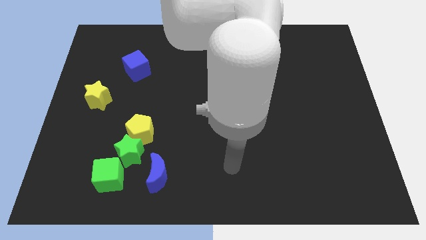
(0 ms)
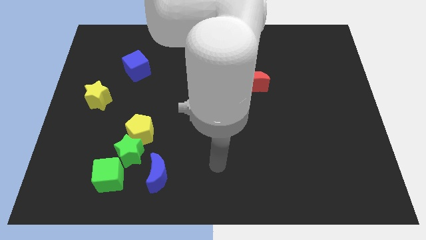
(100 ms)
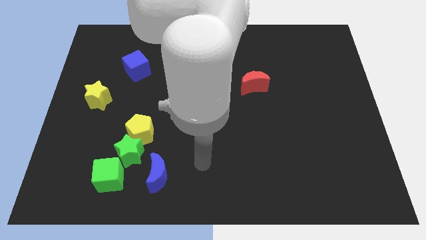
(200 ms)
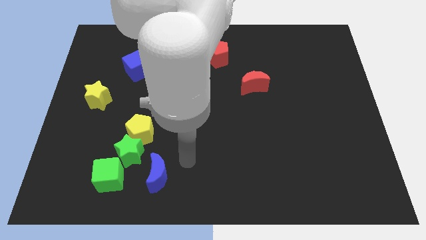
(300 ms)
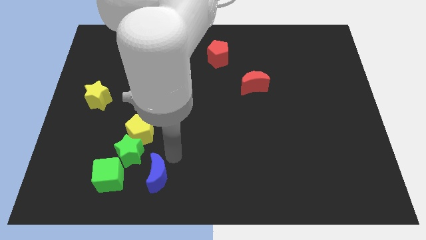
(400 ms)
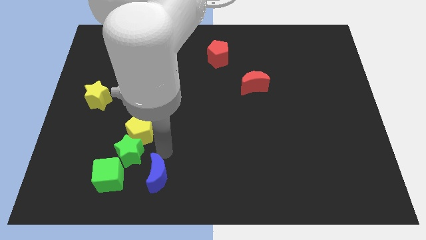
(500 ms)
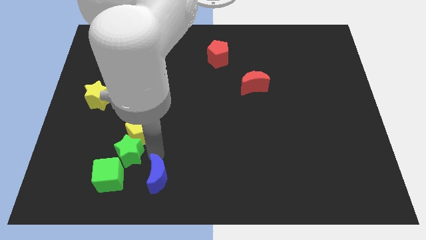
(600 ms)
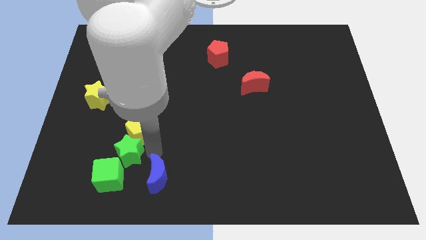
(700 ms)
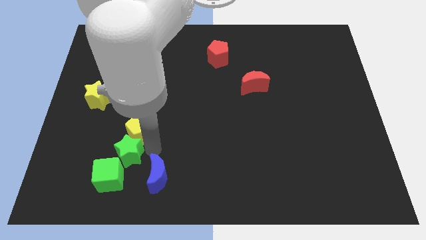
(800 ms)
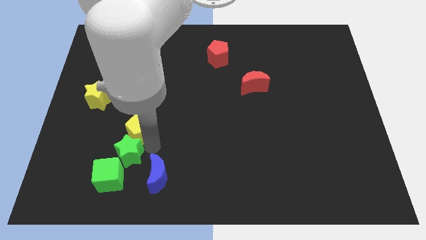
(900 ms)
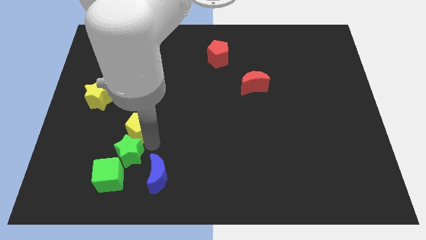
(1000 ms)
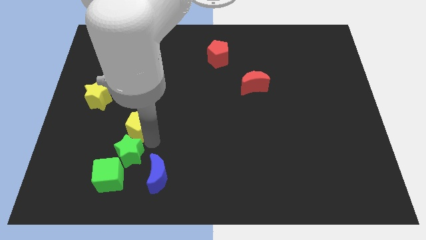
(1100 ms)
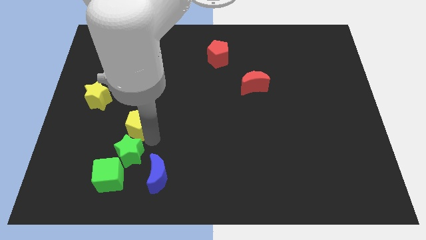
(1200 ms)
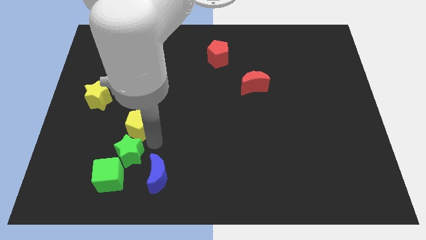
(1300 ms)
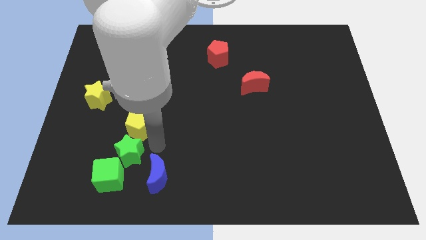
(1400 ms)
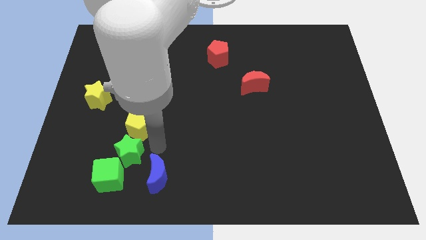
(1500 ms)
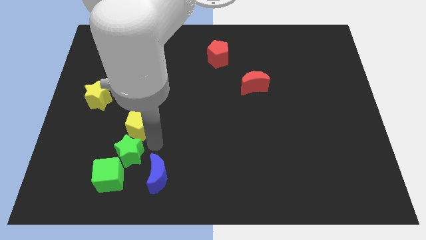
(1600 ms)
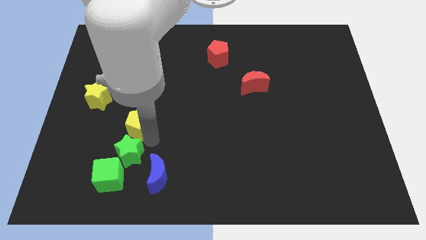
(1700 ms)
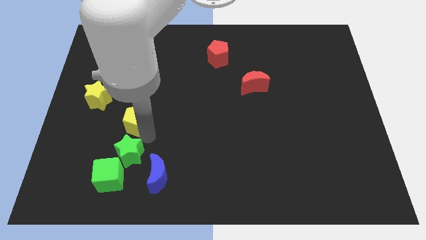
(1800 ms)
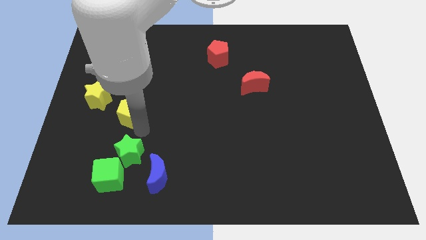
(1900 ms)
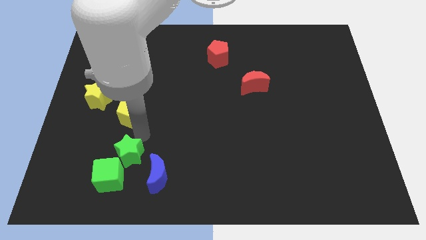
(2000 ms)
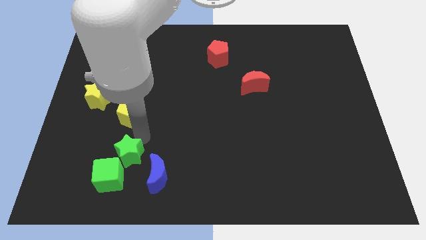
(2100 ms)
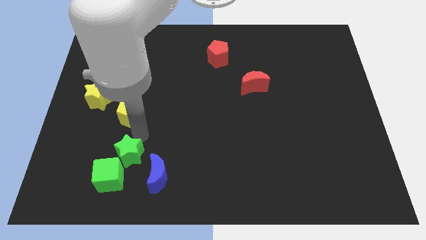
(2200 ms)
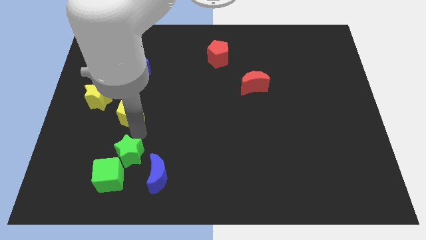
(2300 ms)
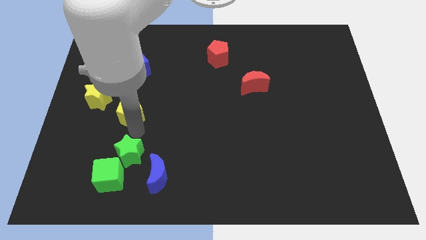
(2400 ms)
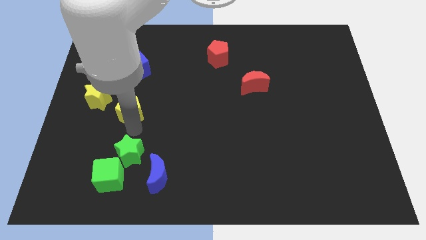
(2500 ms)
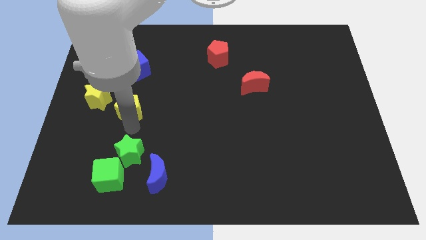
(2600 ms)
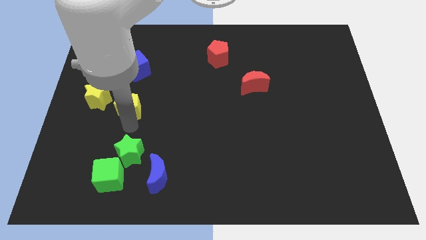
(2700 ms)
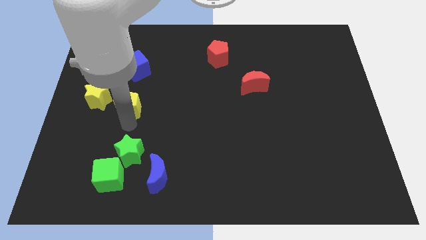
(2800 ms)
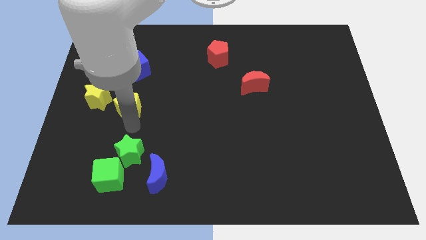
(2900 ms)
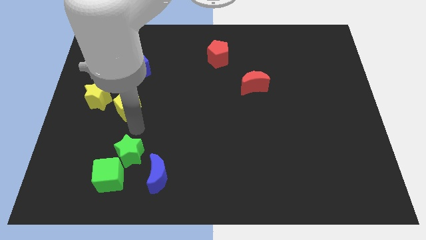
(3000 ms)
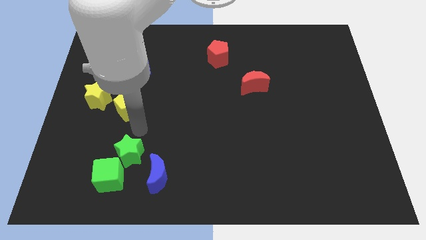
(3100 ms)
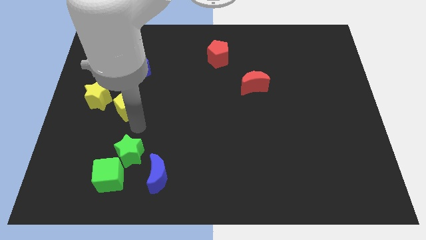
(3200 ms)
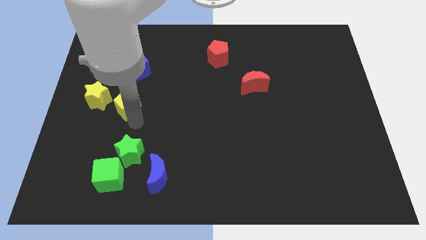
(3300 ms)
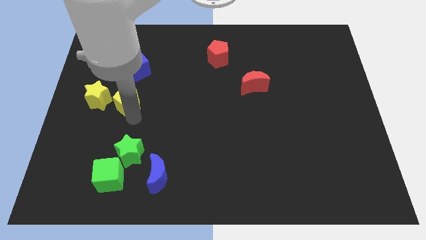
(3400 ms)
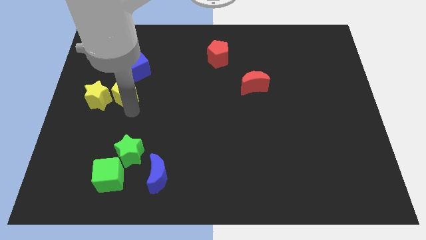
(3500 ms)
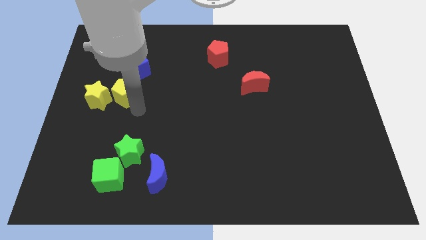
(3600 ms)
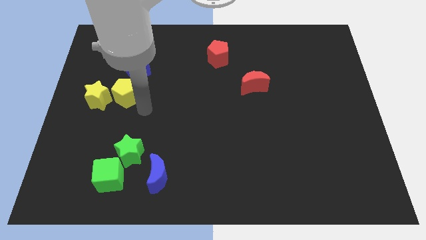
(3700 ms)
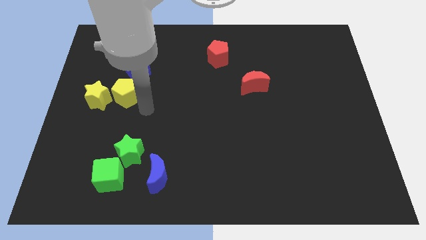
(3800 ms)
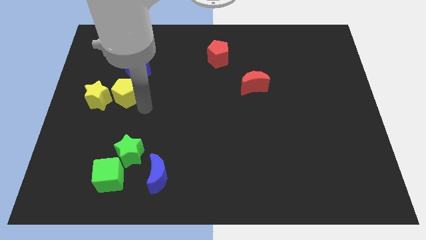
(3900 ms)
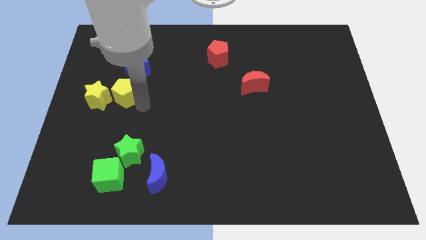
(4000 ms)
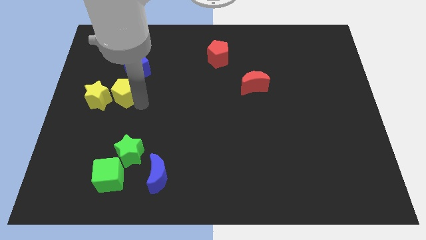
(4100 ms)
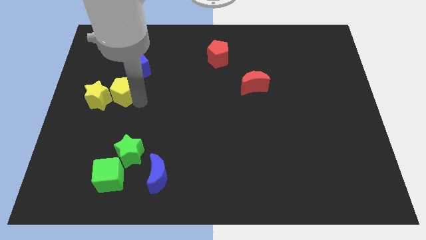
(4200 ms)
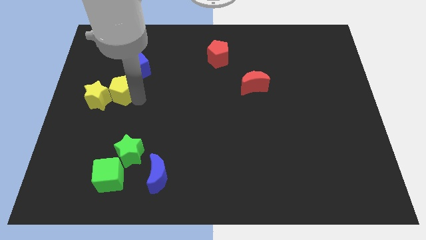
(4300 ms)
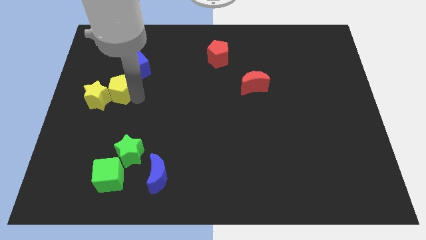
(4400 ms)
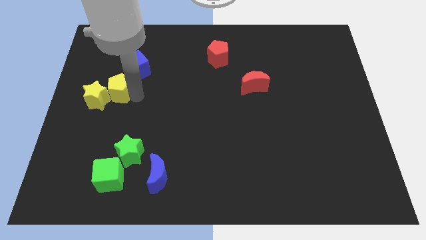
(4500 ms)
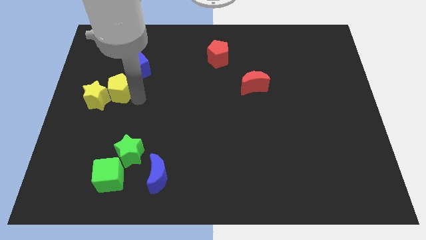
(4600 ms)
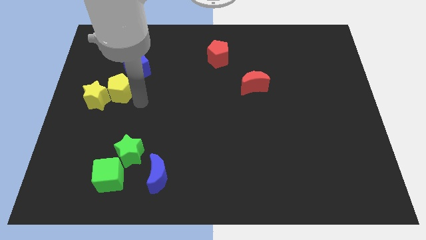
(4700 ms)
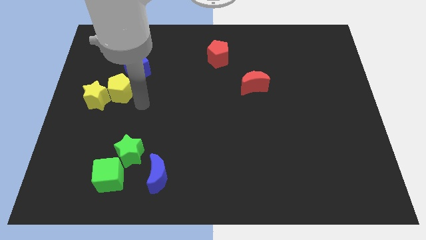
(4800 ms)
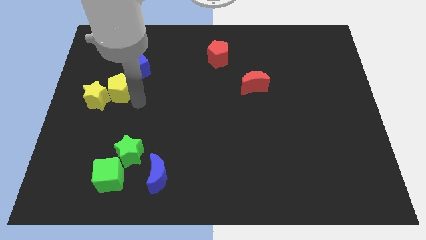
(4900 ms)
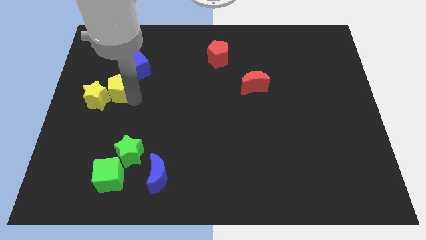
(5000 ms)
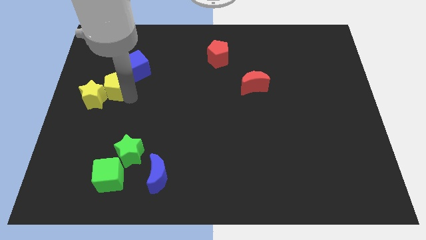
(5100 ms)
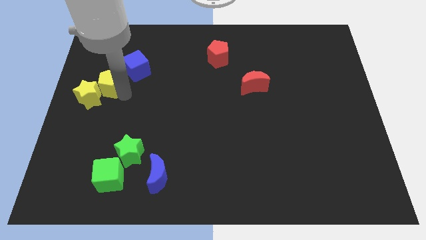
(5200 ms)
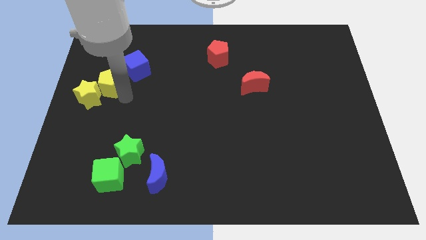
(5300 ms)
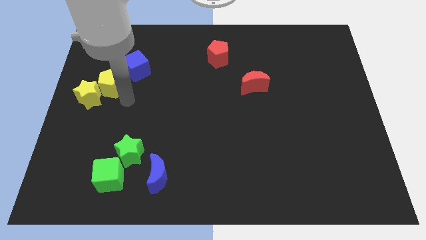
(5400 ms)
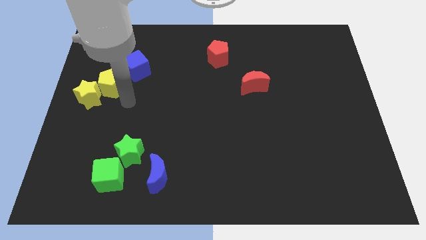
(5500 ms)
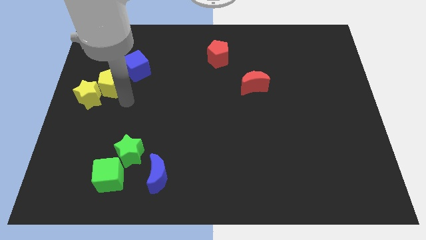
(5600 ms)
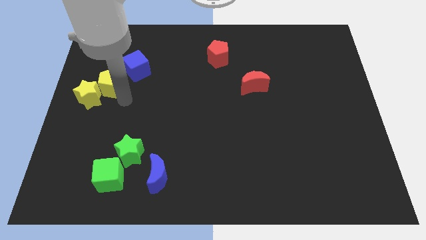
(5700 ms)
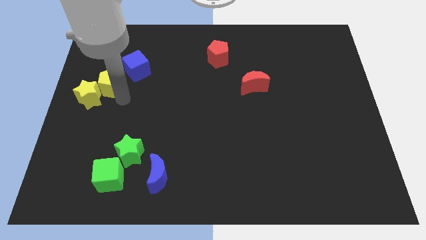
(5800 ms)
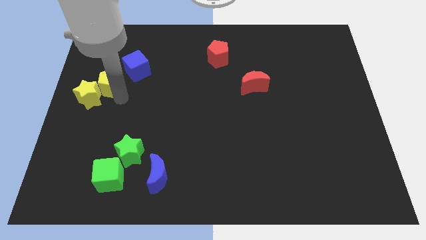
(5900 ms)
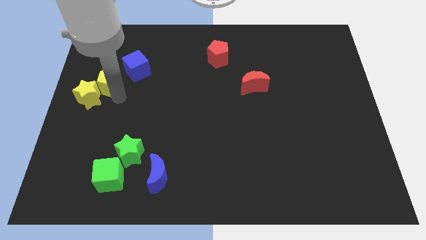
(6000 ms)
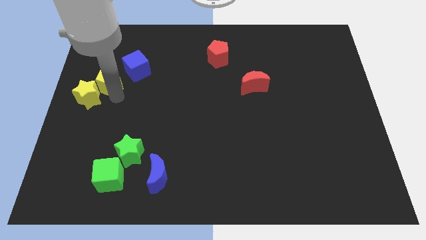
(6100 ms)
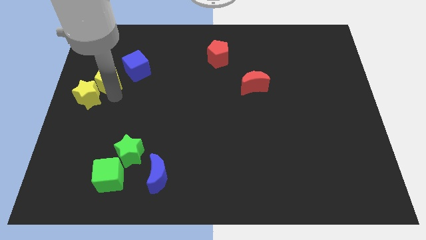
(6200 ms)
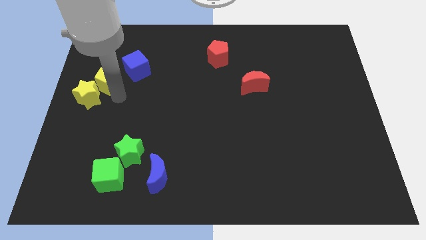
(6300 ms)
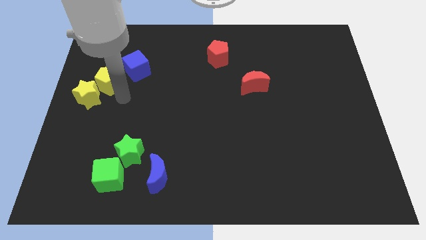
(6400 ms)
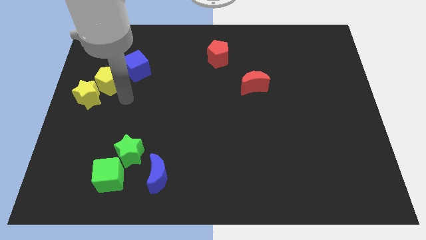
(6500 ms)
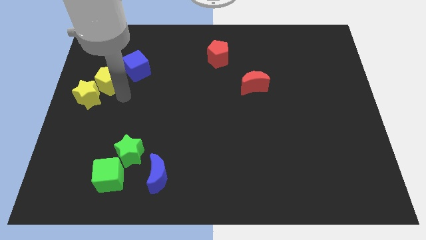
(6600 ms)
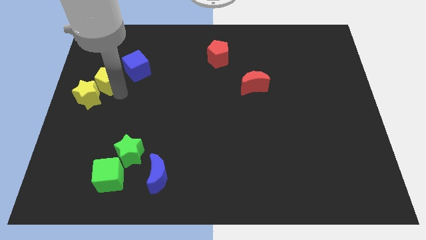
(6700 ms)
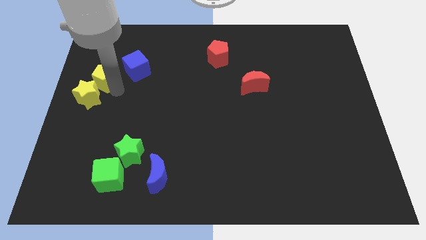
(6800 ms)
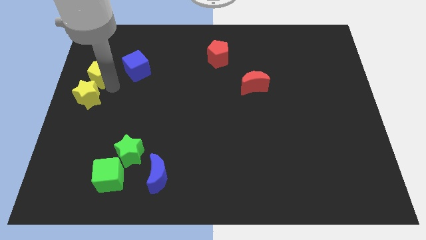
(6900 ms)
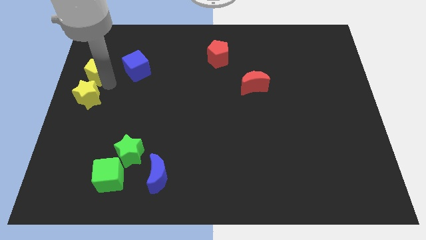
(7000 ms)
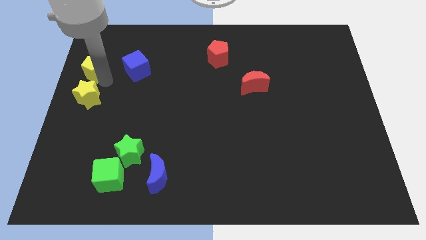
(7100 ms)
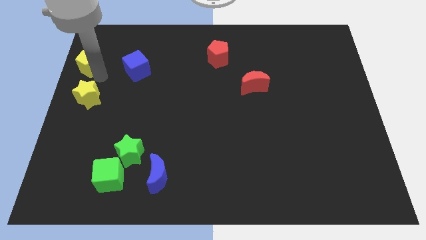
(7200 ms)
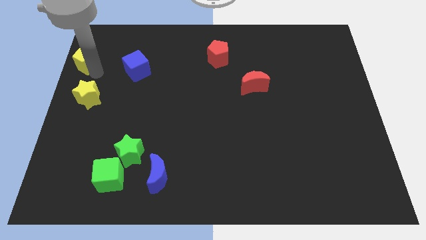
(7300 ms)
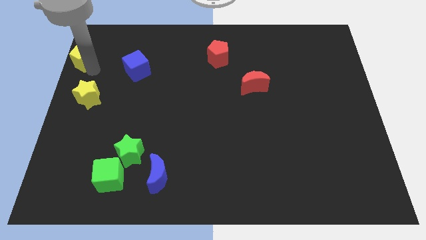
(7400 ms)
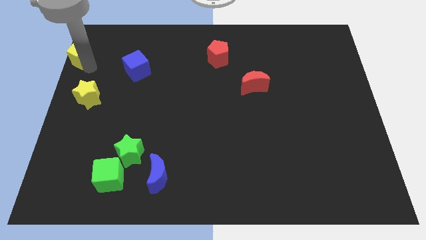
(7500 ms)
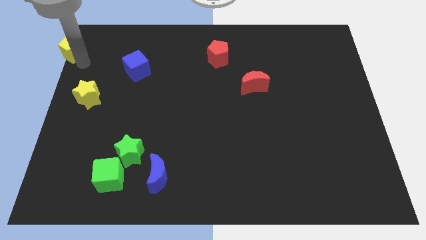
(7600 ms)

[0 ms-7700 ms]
push the yellow pentagon to the top left

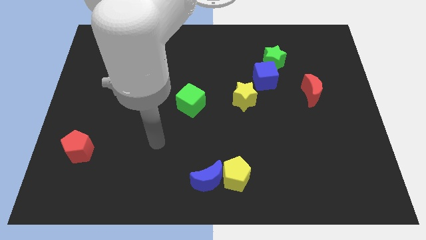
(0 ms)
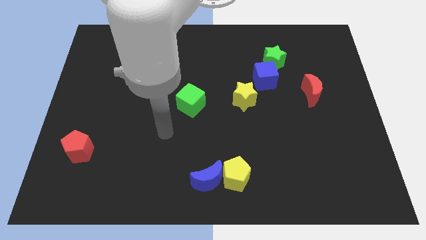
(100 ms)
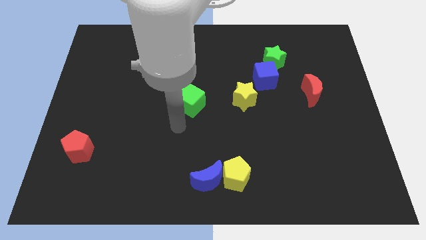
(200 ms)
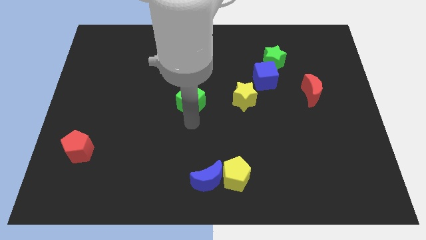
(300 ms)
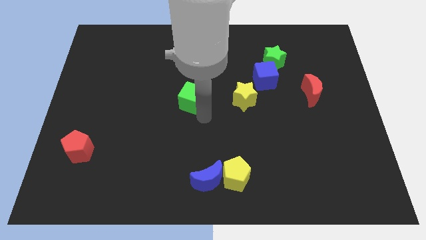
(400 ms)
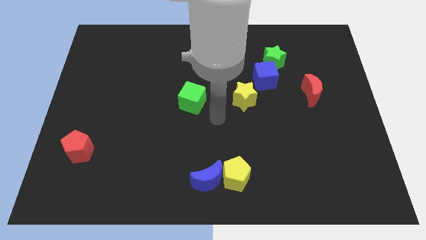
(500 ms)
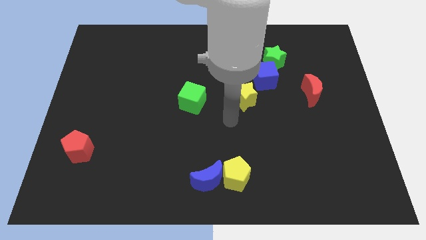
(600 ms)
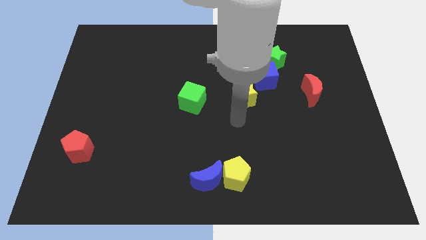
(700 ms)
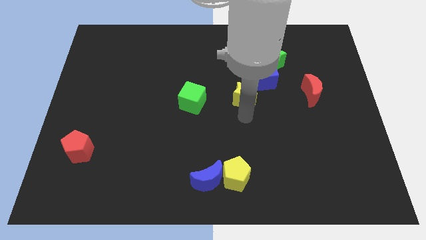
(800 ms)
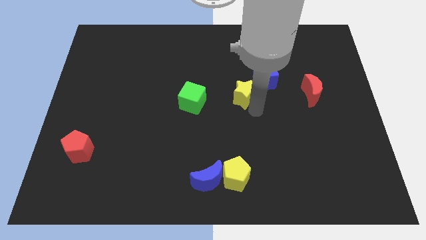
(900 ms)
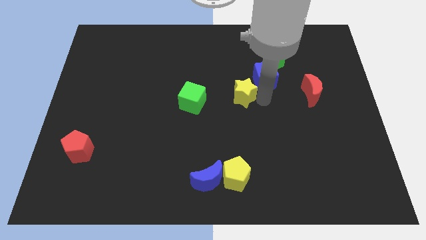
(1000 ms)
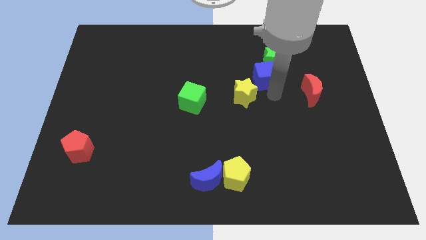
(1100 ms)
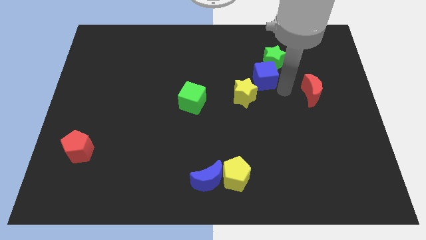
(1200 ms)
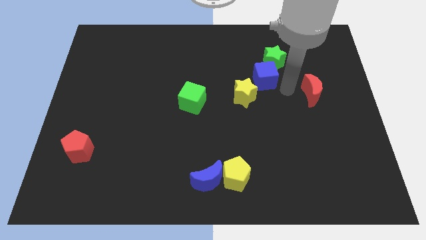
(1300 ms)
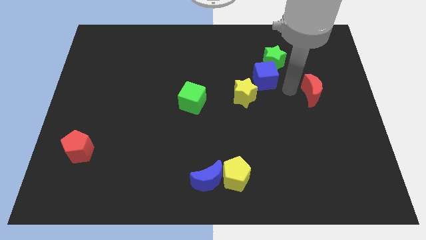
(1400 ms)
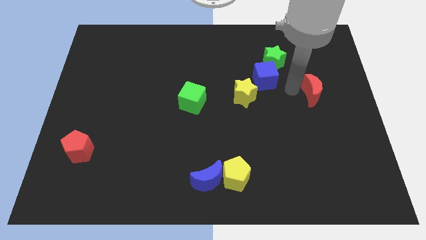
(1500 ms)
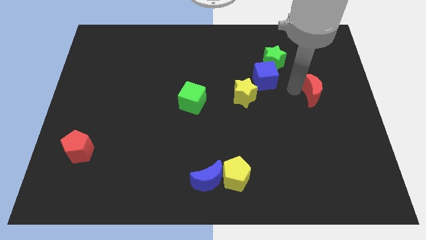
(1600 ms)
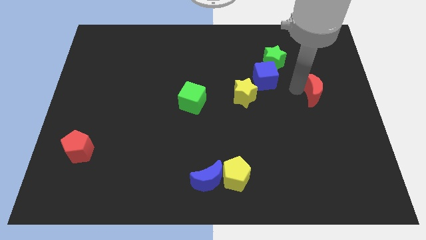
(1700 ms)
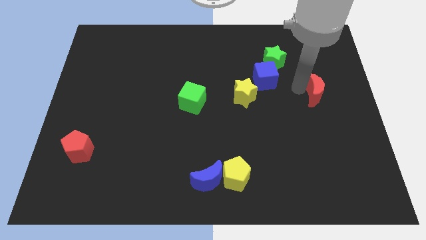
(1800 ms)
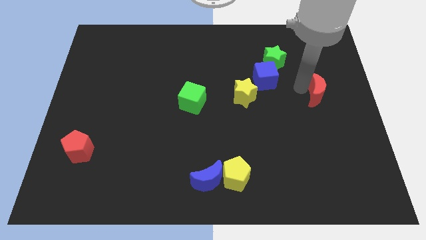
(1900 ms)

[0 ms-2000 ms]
push the red moon to the right side
